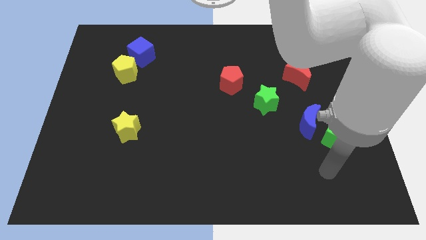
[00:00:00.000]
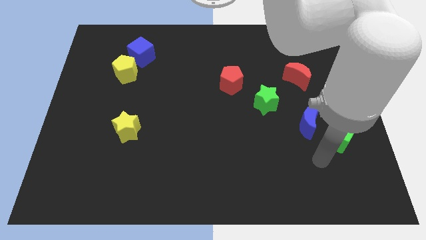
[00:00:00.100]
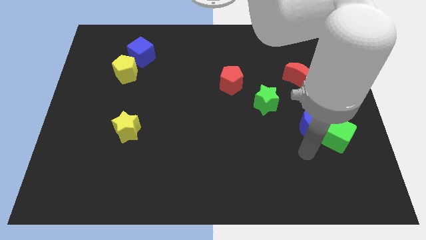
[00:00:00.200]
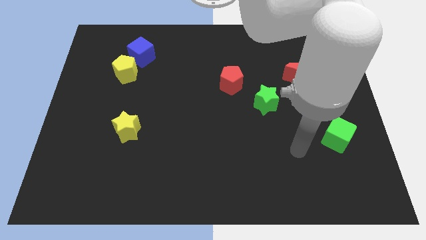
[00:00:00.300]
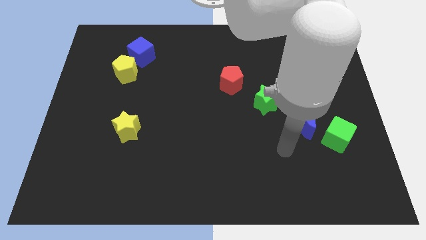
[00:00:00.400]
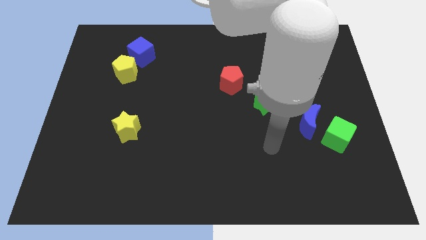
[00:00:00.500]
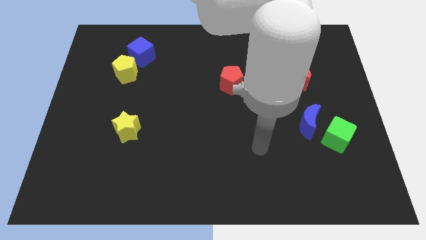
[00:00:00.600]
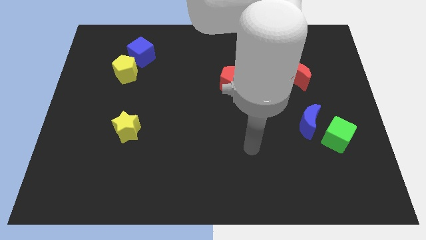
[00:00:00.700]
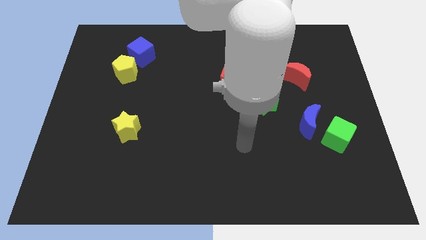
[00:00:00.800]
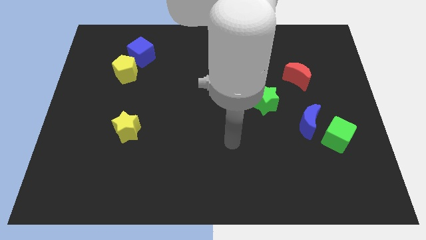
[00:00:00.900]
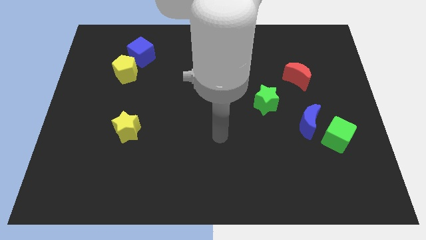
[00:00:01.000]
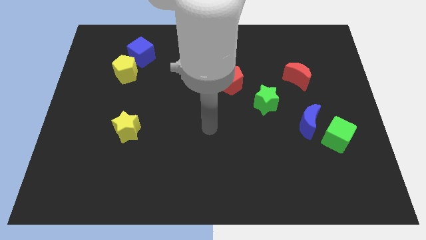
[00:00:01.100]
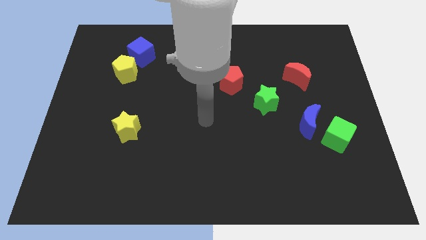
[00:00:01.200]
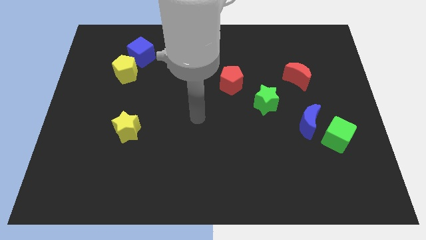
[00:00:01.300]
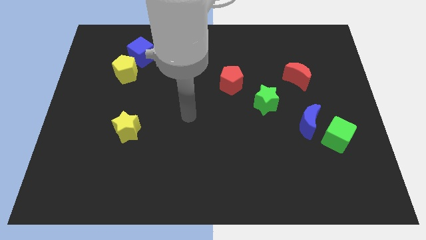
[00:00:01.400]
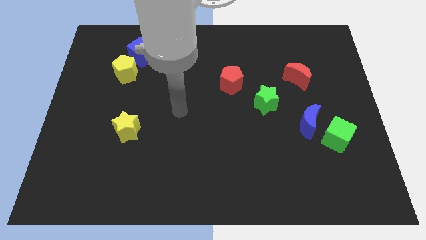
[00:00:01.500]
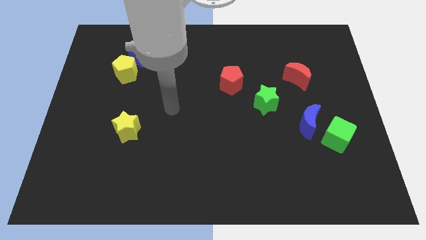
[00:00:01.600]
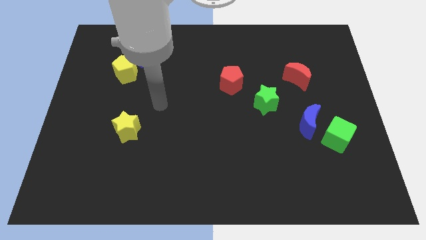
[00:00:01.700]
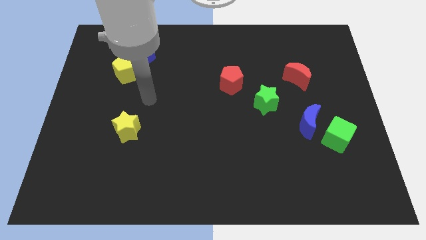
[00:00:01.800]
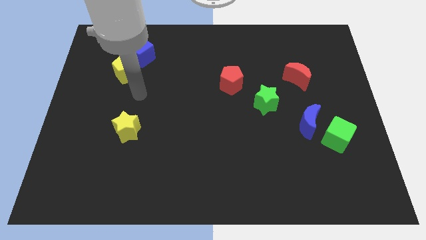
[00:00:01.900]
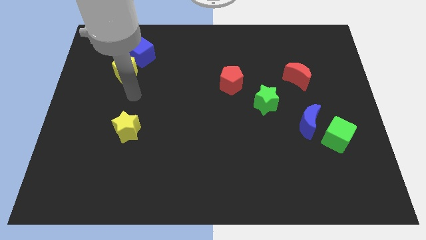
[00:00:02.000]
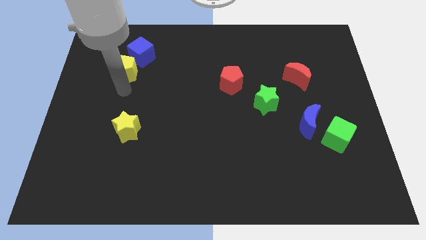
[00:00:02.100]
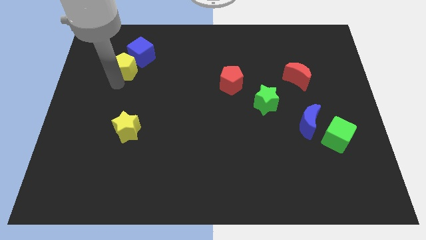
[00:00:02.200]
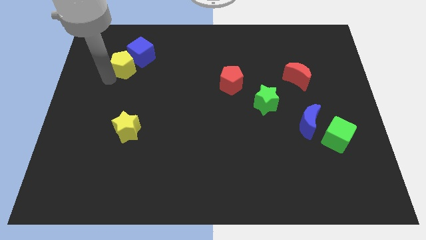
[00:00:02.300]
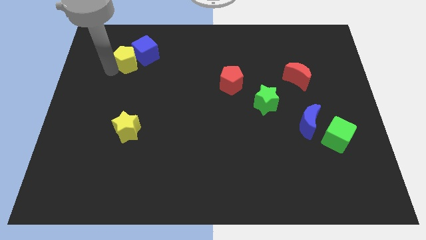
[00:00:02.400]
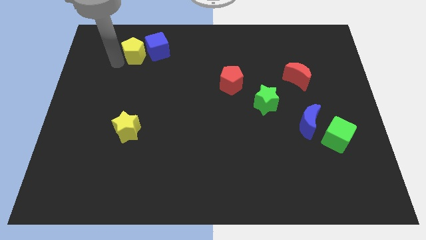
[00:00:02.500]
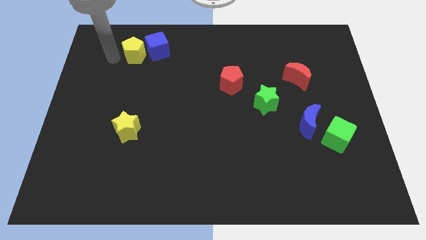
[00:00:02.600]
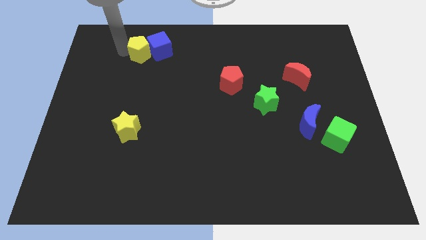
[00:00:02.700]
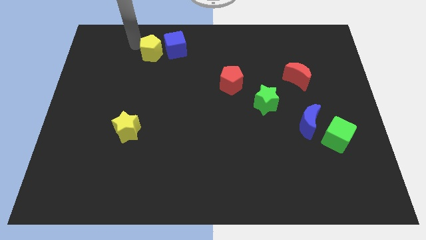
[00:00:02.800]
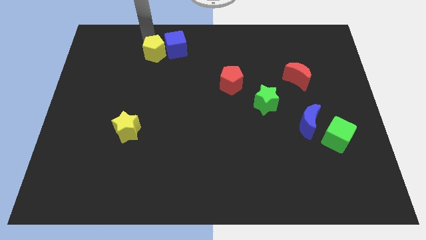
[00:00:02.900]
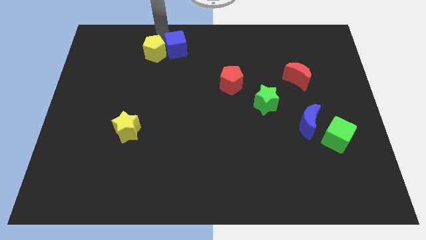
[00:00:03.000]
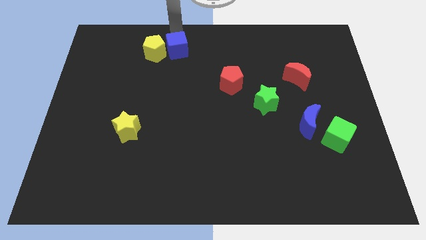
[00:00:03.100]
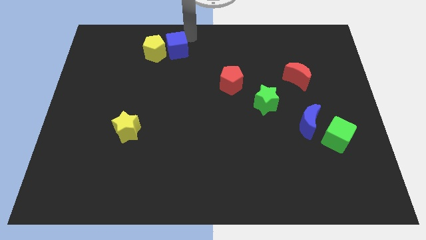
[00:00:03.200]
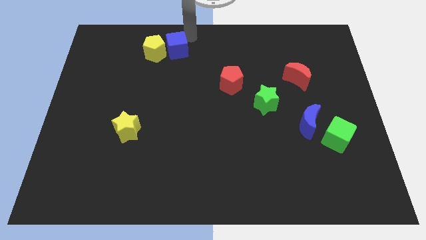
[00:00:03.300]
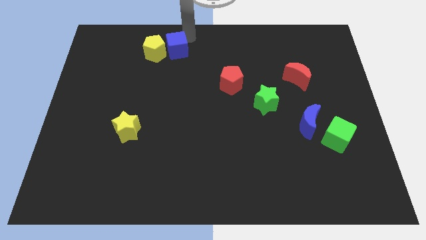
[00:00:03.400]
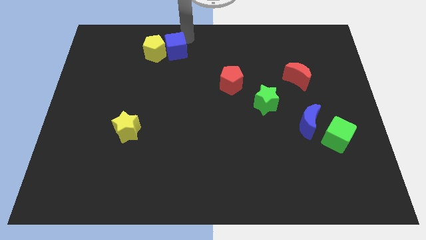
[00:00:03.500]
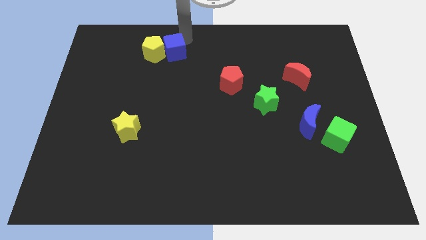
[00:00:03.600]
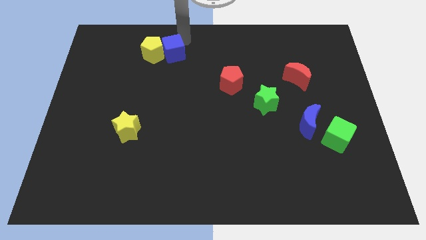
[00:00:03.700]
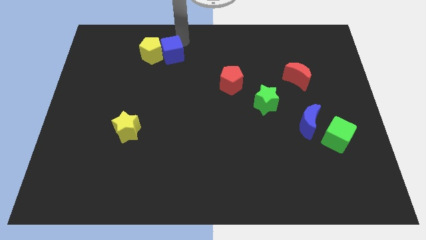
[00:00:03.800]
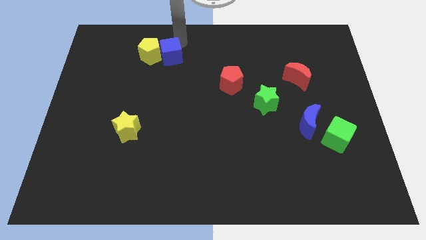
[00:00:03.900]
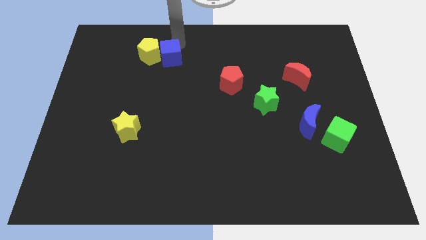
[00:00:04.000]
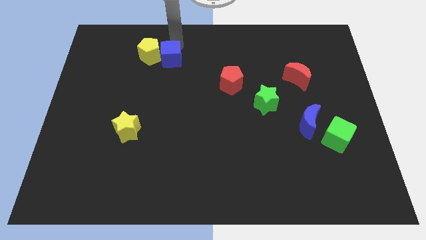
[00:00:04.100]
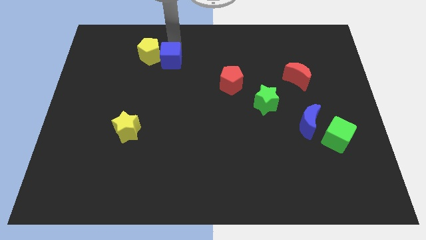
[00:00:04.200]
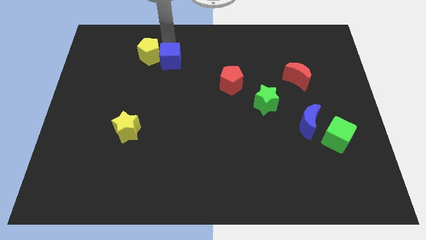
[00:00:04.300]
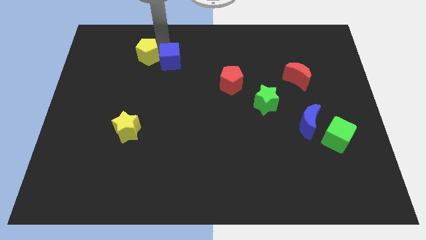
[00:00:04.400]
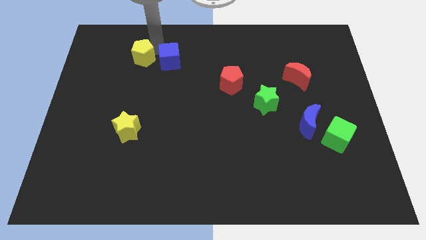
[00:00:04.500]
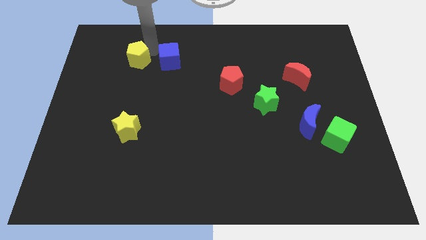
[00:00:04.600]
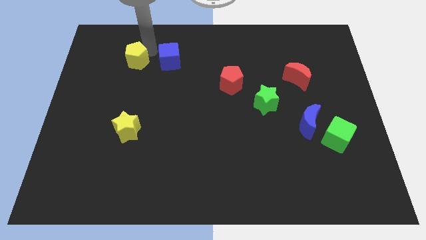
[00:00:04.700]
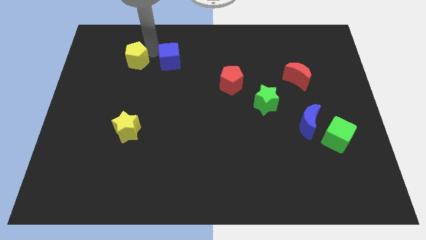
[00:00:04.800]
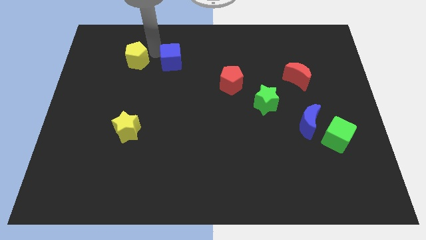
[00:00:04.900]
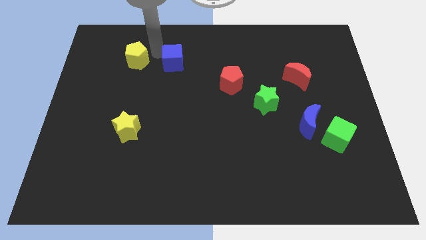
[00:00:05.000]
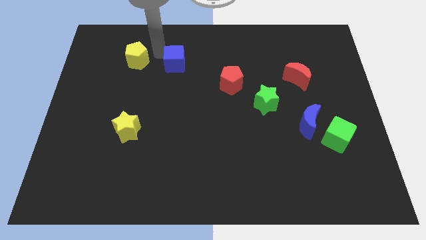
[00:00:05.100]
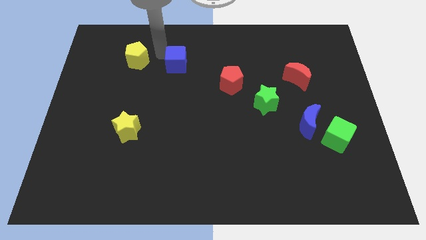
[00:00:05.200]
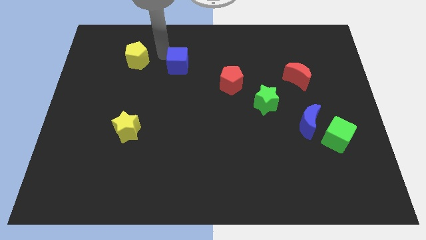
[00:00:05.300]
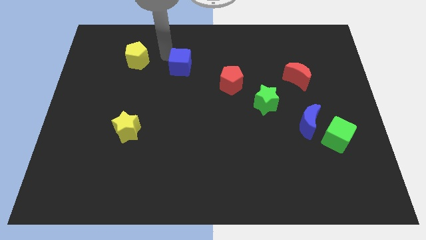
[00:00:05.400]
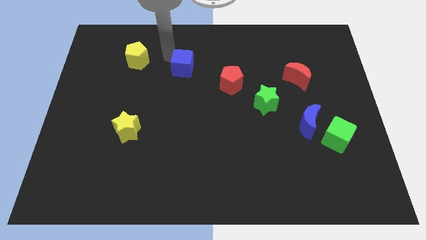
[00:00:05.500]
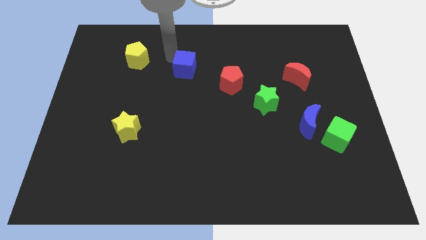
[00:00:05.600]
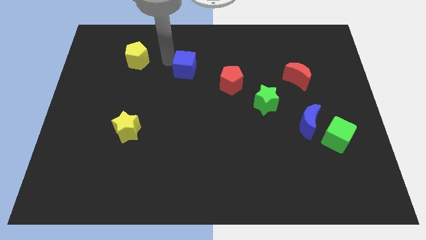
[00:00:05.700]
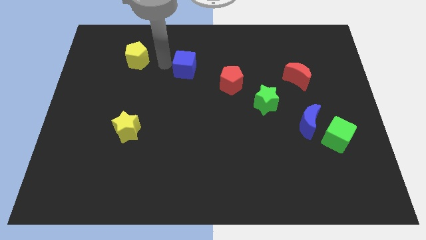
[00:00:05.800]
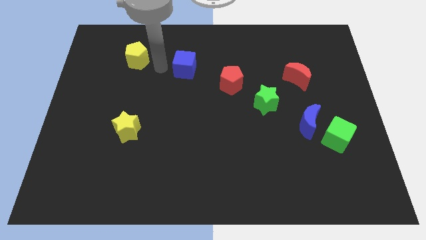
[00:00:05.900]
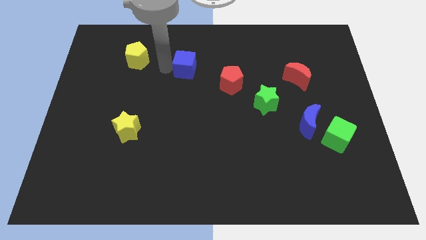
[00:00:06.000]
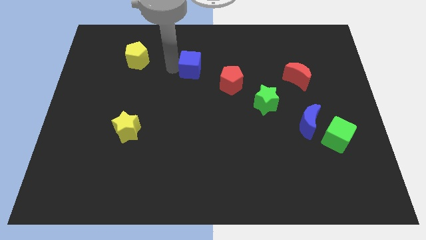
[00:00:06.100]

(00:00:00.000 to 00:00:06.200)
slide the blue cube to the top left side of the red pentagon
